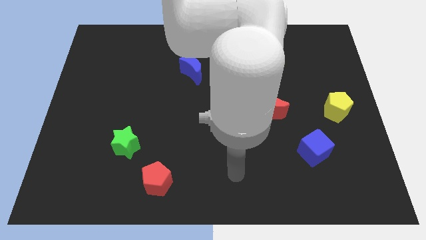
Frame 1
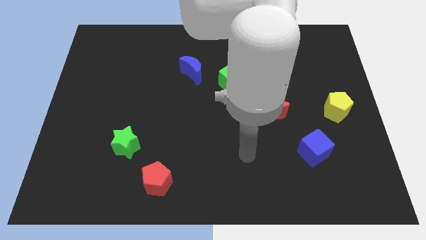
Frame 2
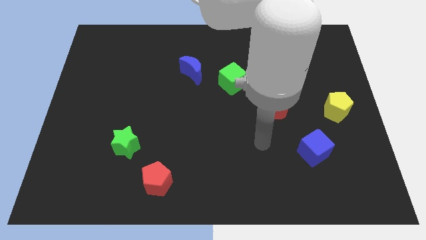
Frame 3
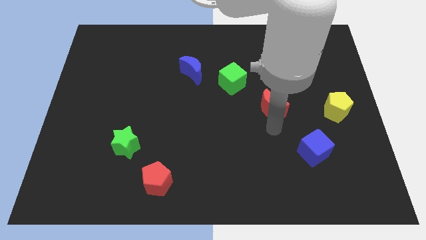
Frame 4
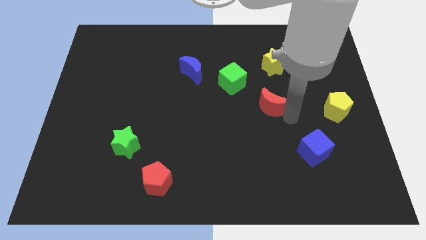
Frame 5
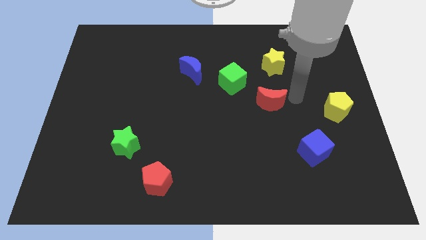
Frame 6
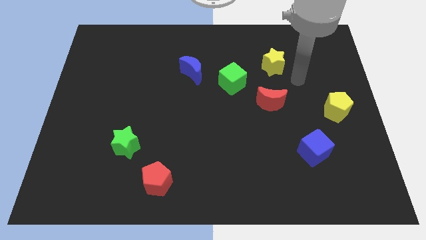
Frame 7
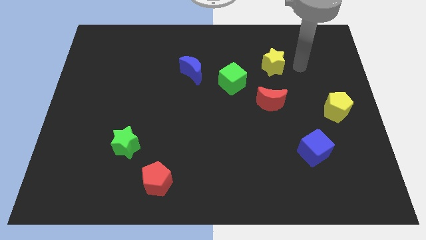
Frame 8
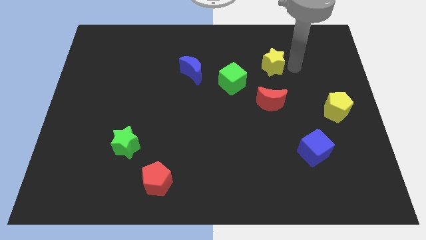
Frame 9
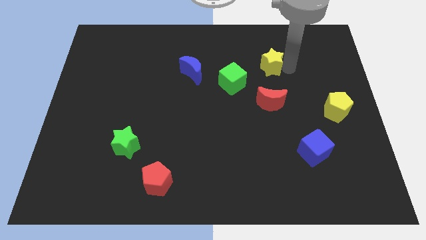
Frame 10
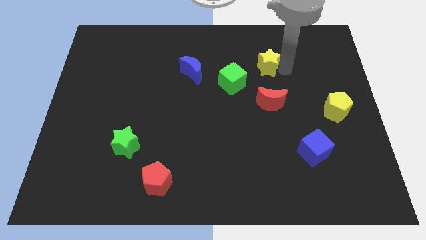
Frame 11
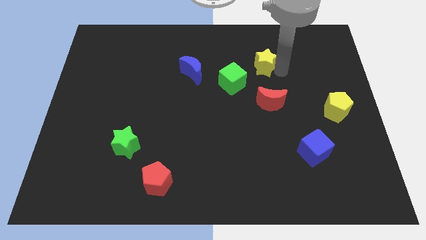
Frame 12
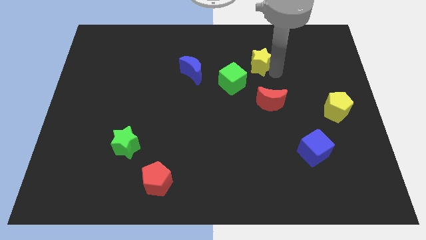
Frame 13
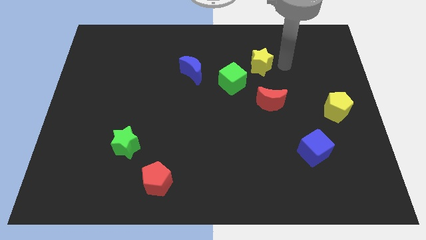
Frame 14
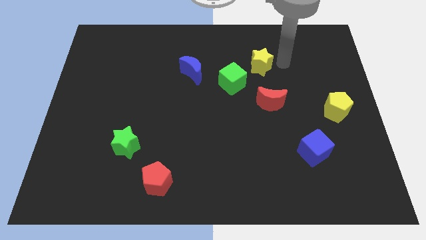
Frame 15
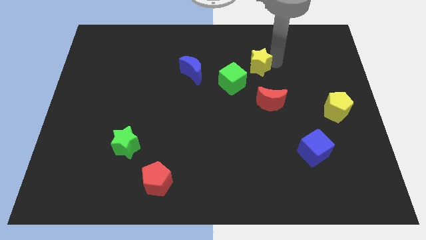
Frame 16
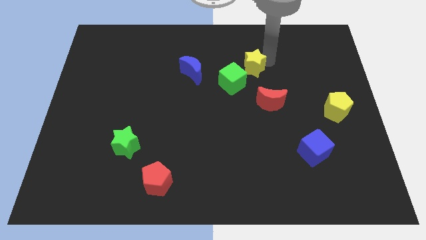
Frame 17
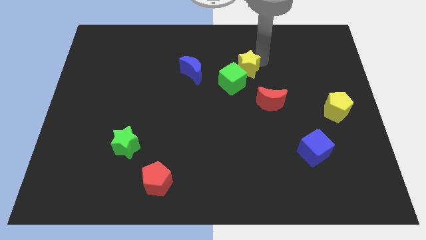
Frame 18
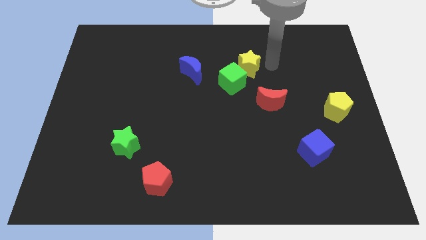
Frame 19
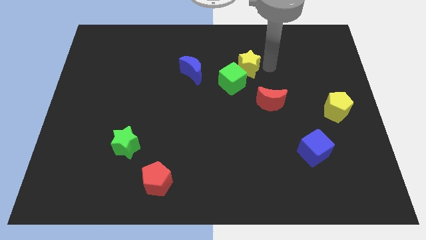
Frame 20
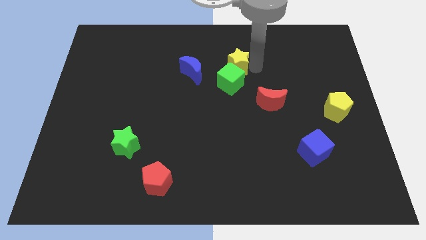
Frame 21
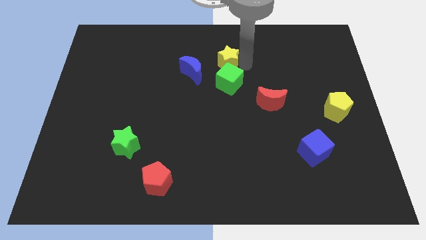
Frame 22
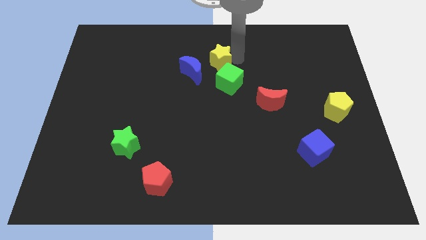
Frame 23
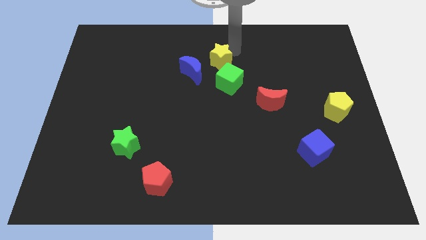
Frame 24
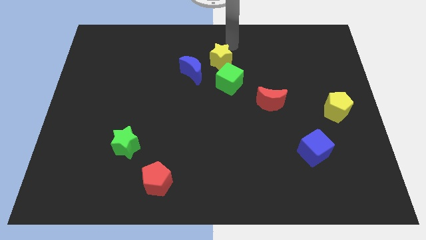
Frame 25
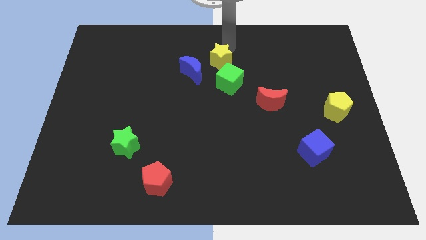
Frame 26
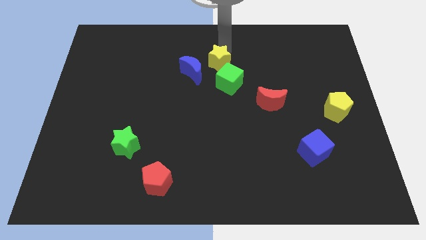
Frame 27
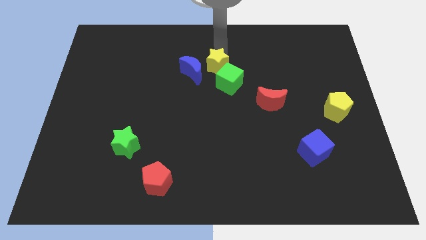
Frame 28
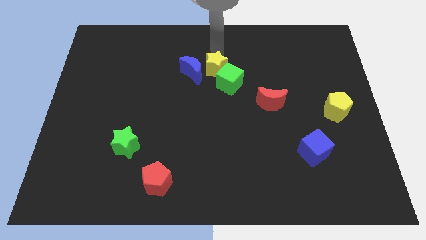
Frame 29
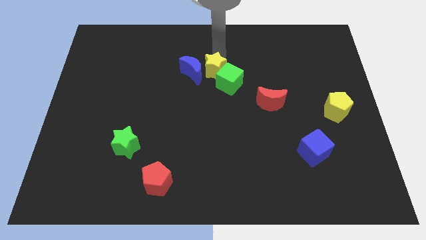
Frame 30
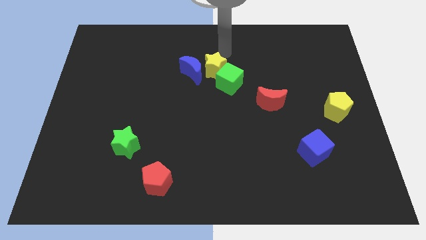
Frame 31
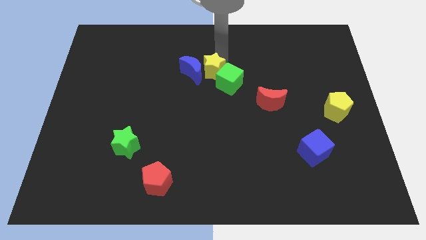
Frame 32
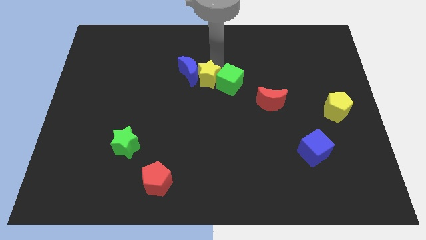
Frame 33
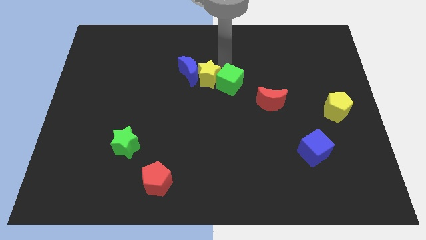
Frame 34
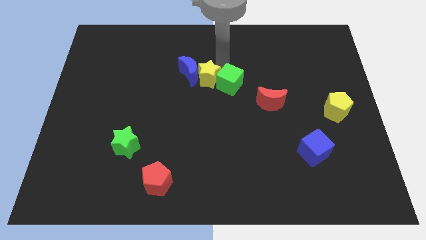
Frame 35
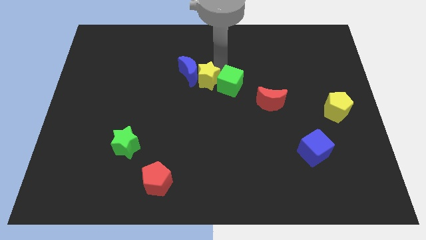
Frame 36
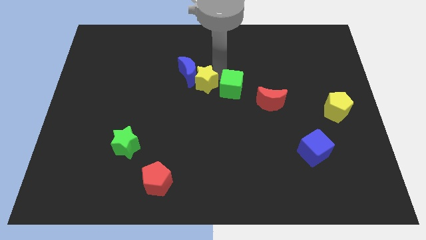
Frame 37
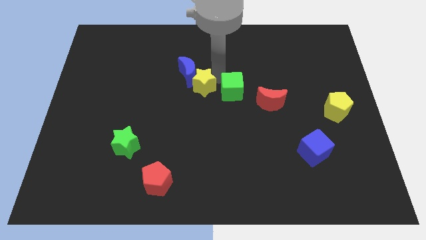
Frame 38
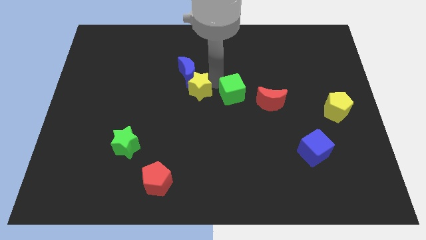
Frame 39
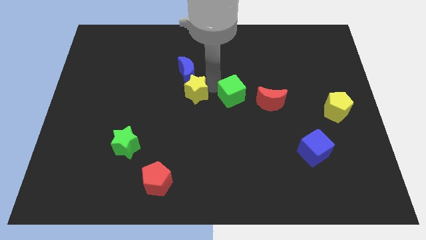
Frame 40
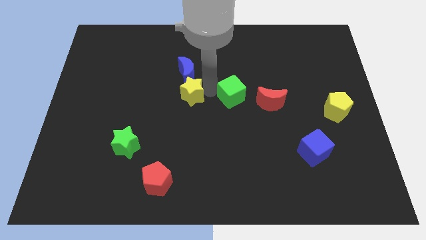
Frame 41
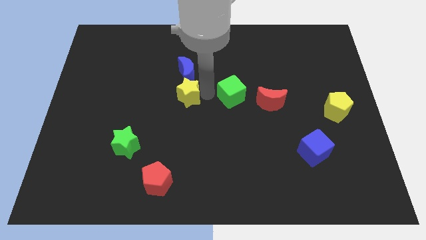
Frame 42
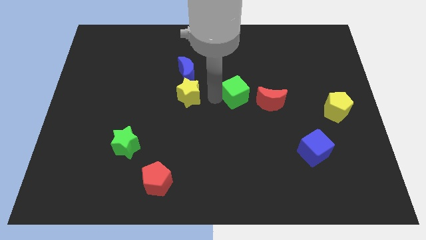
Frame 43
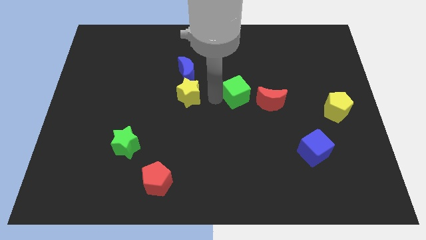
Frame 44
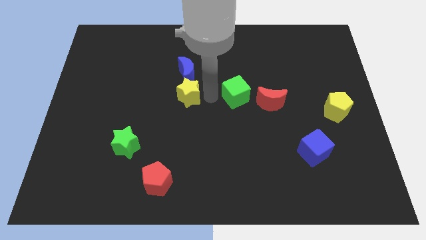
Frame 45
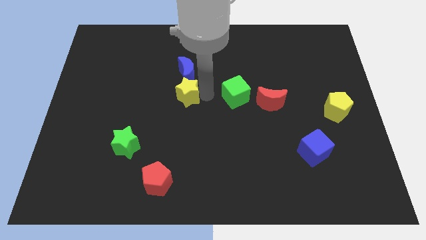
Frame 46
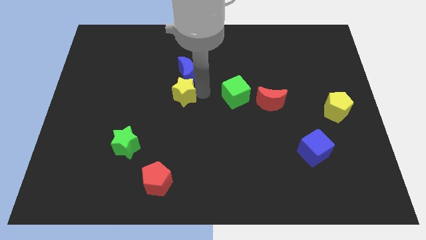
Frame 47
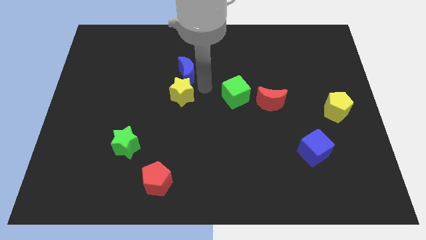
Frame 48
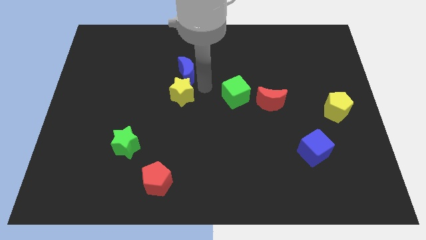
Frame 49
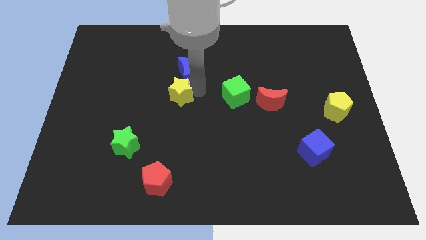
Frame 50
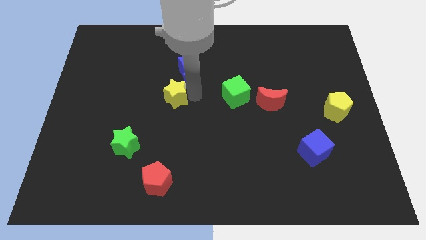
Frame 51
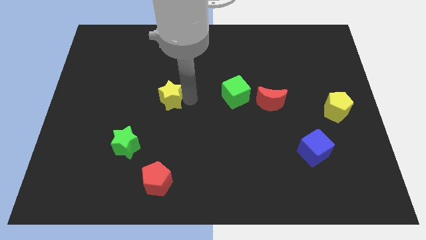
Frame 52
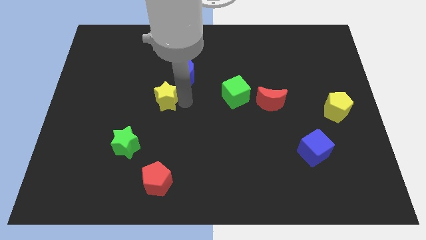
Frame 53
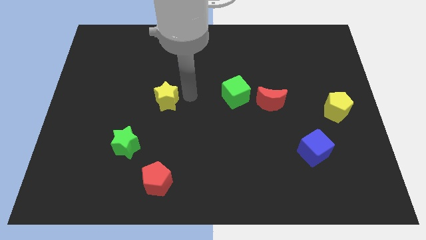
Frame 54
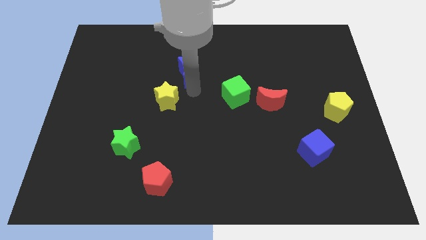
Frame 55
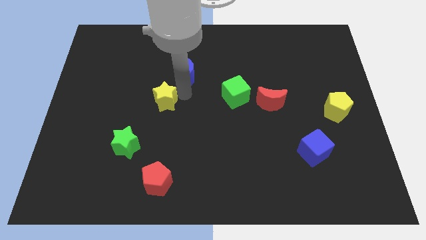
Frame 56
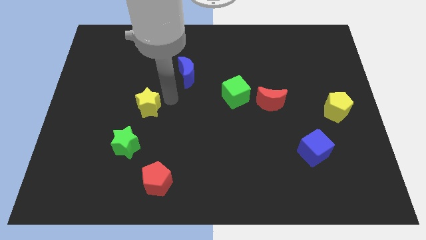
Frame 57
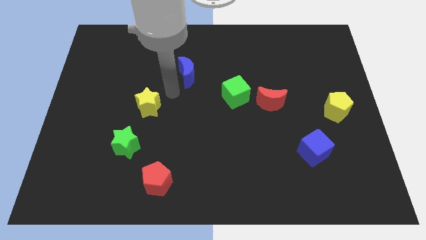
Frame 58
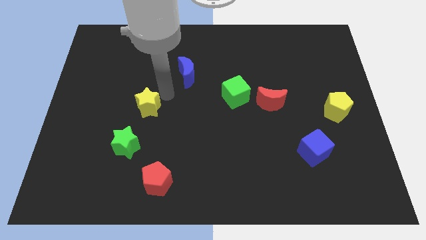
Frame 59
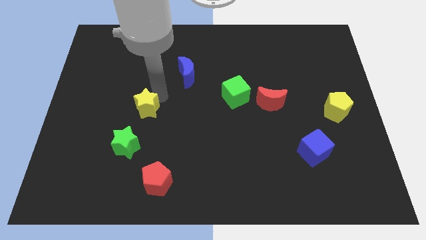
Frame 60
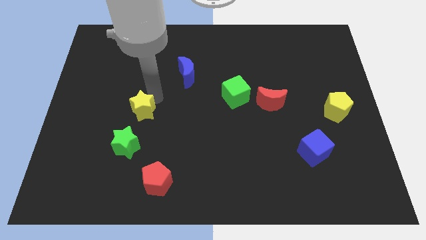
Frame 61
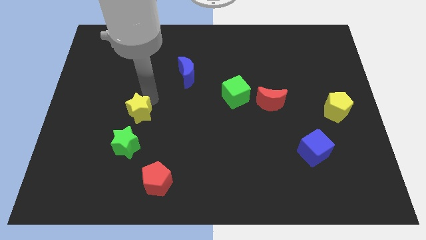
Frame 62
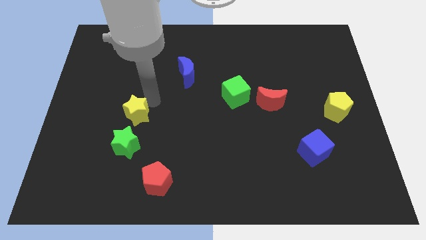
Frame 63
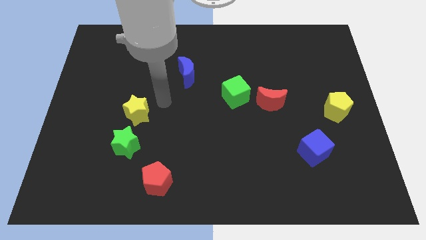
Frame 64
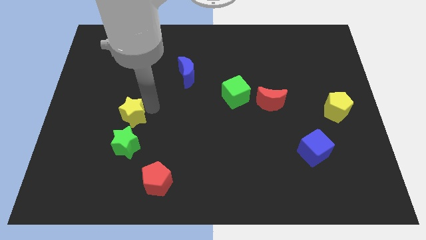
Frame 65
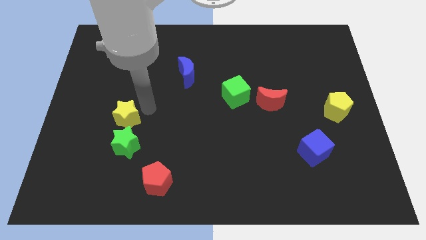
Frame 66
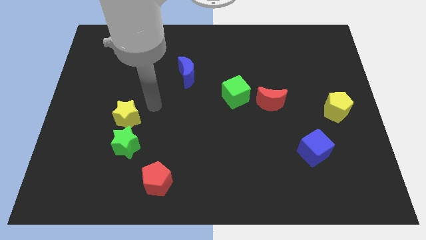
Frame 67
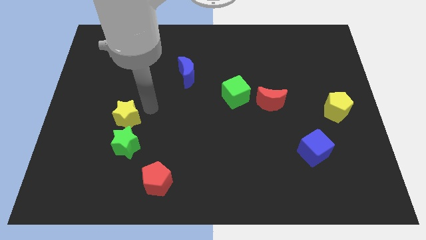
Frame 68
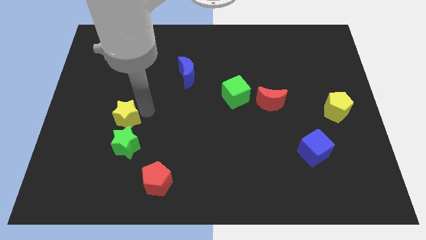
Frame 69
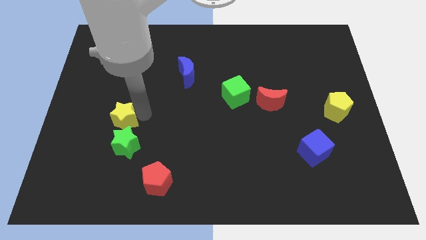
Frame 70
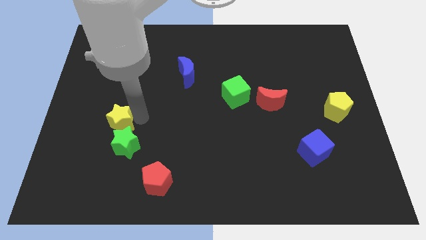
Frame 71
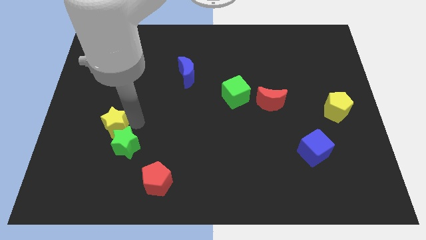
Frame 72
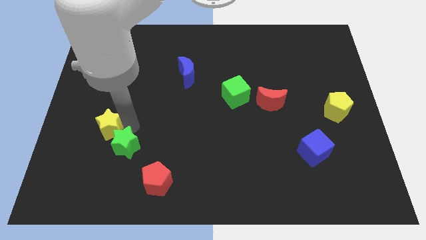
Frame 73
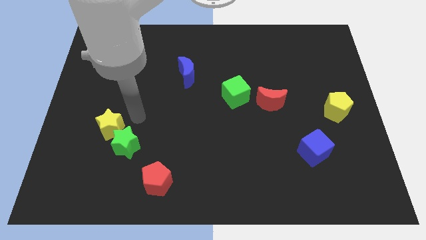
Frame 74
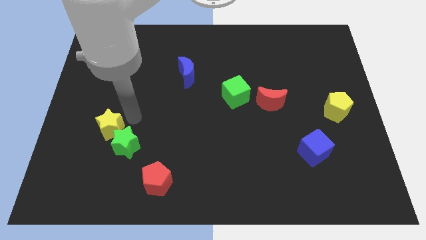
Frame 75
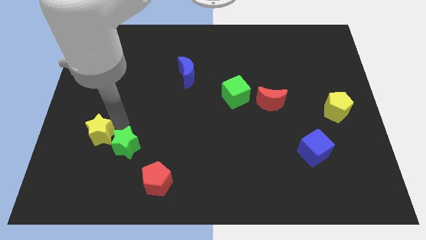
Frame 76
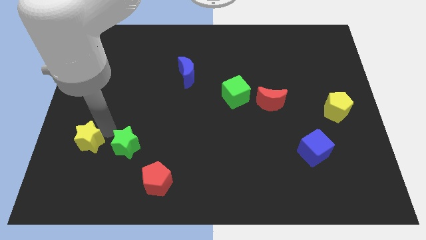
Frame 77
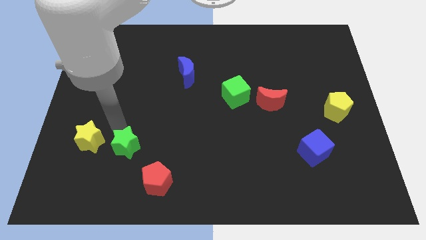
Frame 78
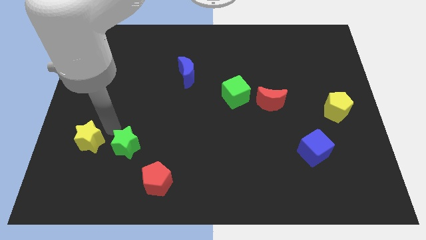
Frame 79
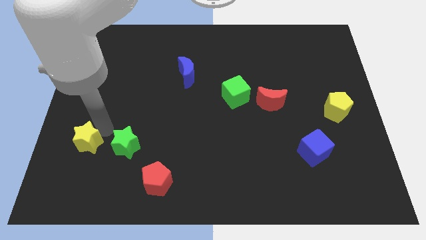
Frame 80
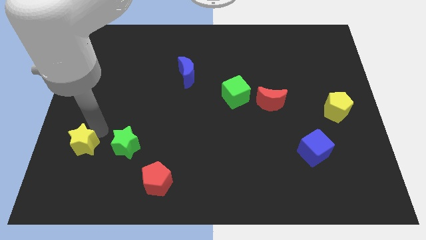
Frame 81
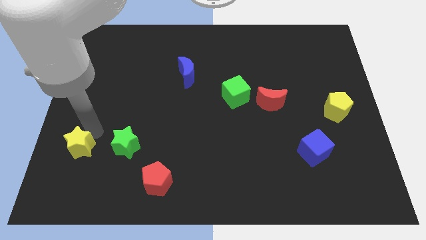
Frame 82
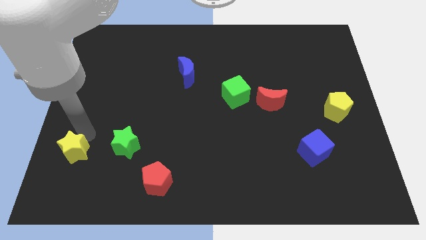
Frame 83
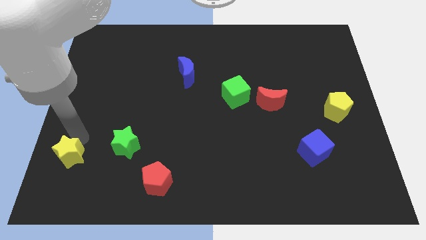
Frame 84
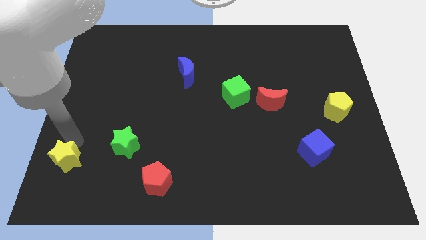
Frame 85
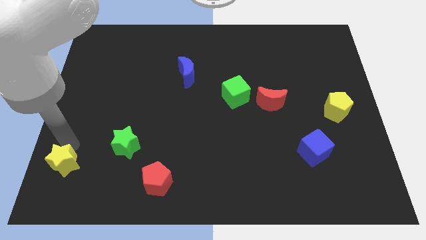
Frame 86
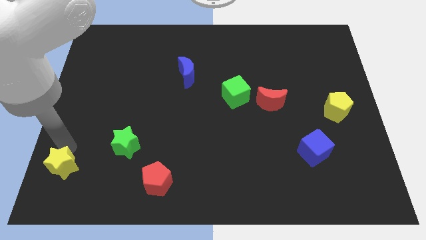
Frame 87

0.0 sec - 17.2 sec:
slide the yellow star to the lower left corner
